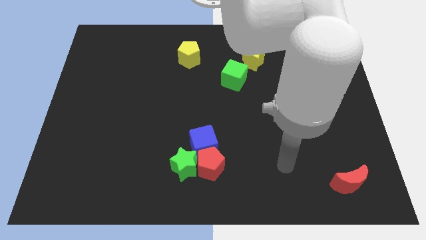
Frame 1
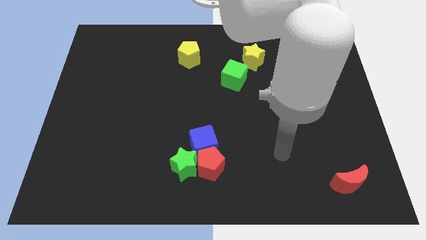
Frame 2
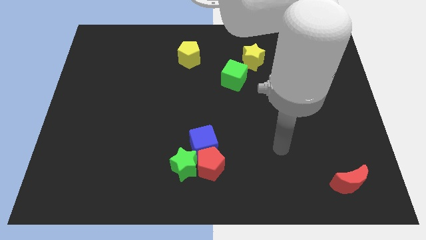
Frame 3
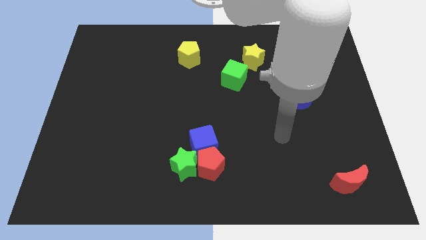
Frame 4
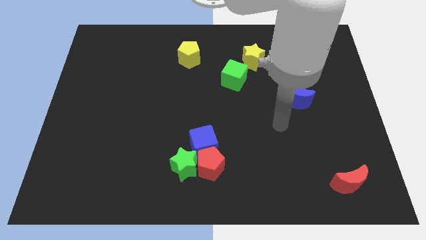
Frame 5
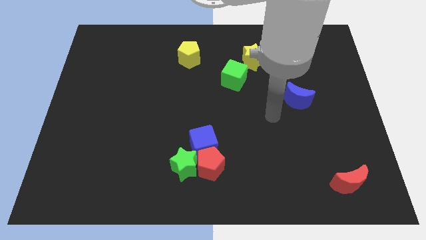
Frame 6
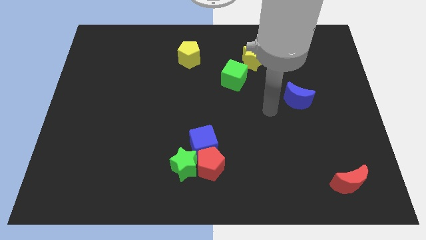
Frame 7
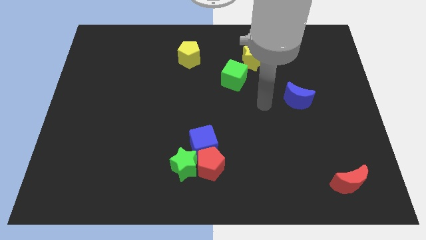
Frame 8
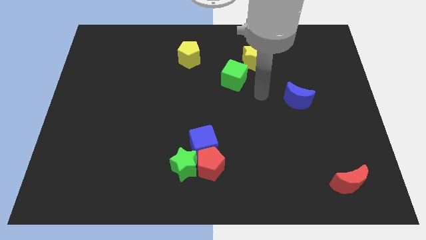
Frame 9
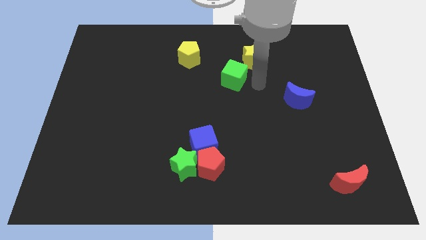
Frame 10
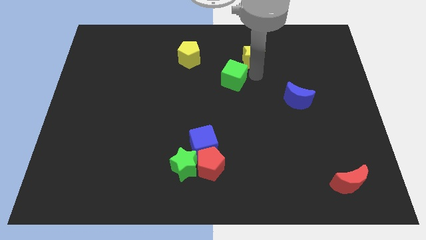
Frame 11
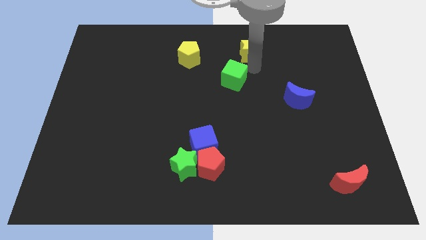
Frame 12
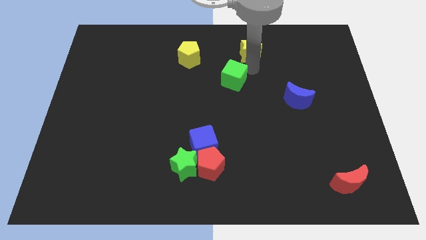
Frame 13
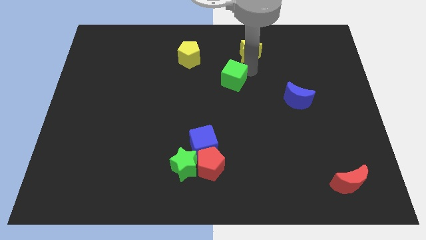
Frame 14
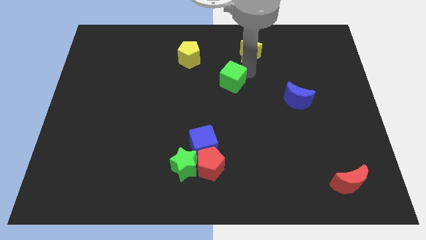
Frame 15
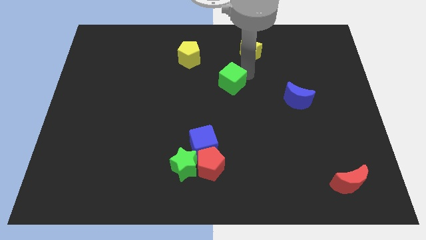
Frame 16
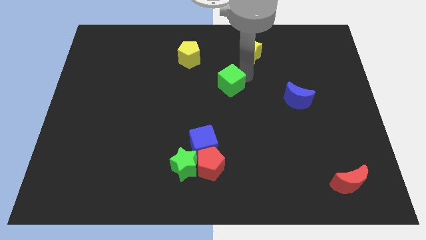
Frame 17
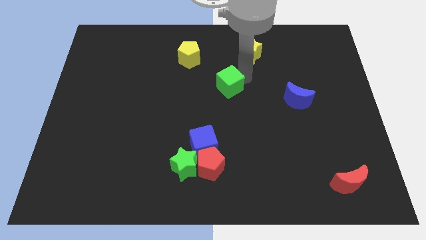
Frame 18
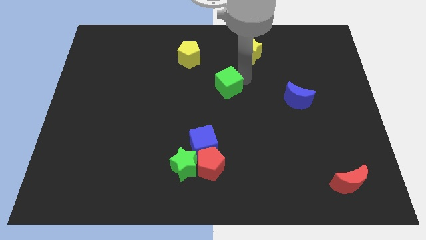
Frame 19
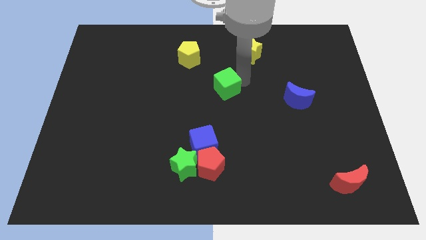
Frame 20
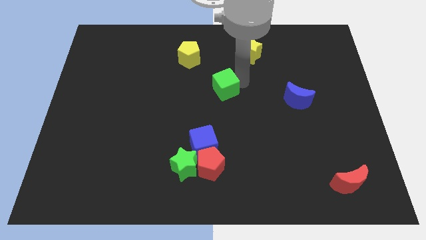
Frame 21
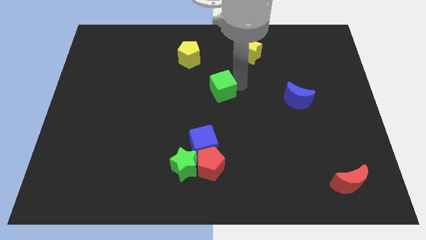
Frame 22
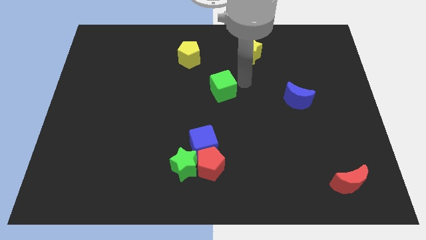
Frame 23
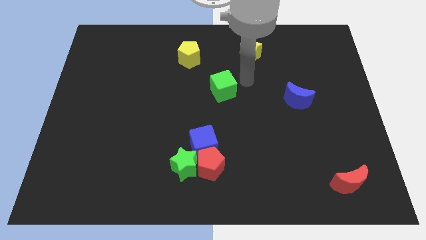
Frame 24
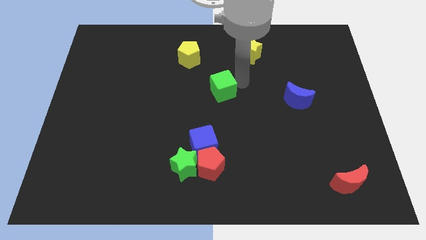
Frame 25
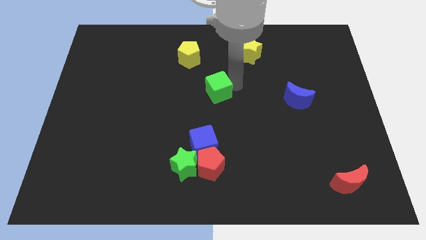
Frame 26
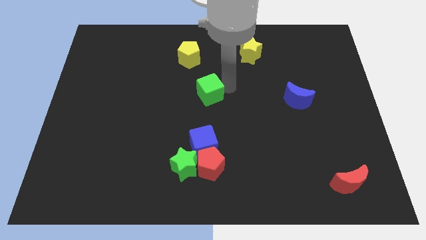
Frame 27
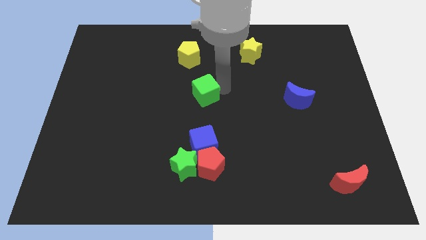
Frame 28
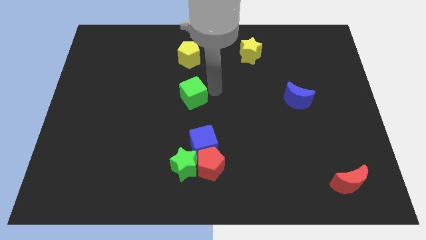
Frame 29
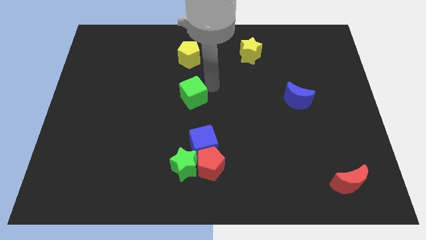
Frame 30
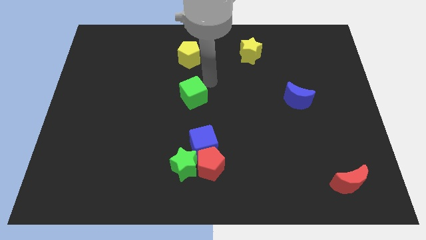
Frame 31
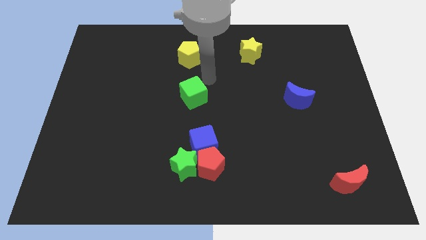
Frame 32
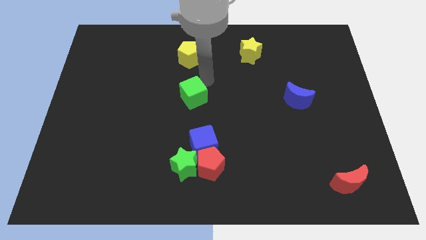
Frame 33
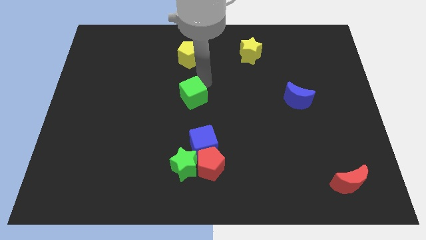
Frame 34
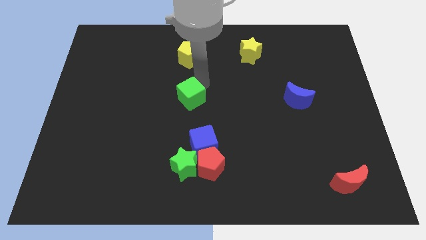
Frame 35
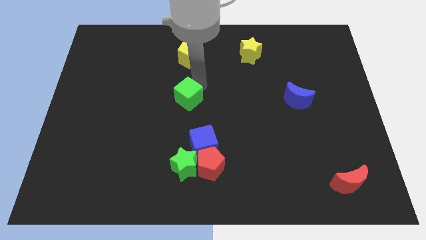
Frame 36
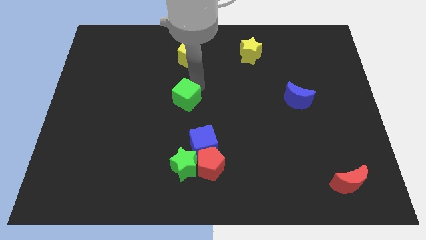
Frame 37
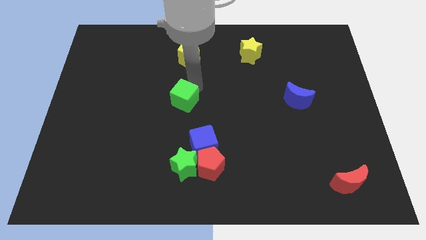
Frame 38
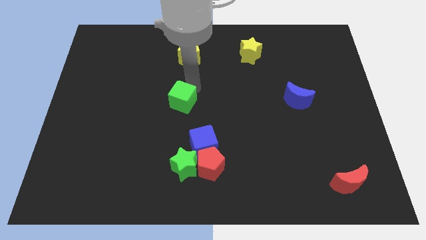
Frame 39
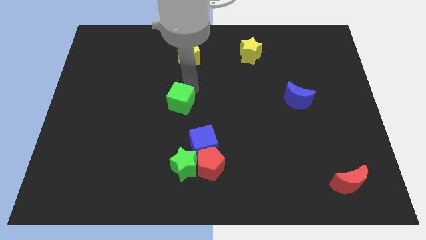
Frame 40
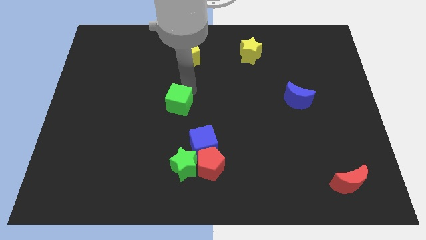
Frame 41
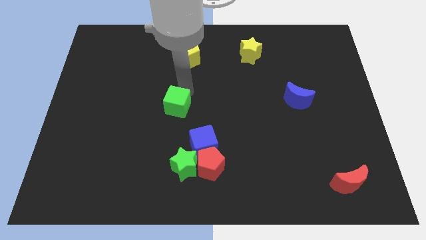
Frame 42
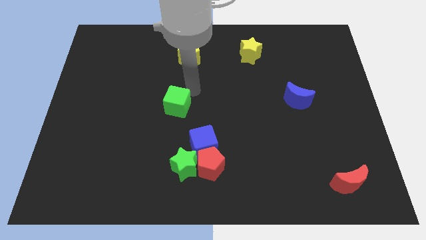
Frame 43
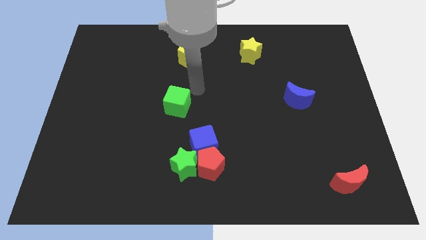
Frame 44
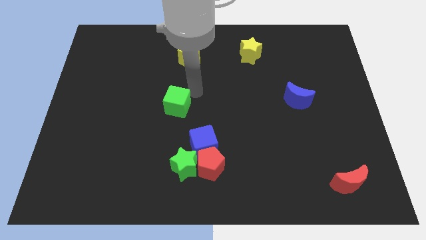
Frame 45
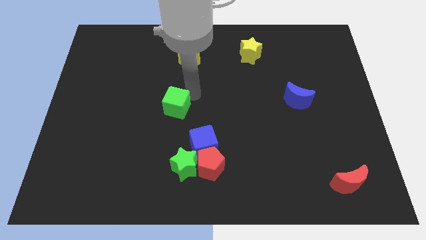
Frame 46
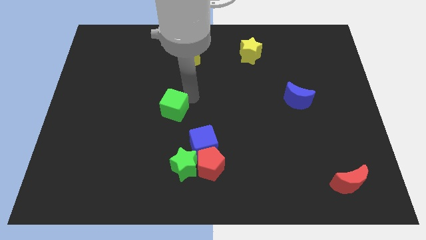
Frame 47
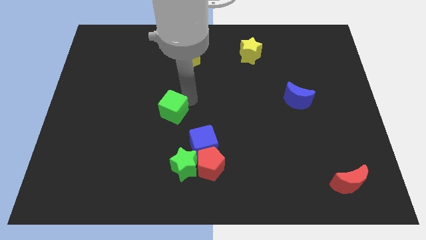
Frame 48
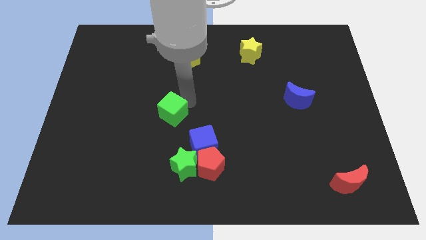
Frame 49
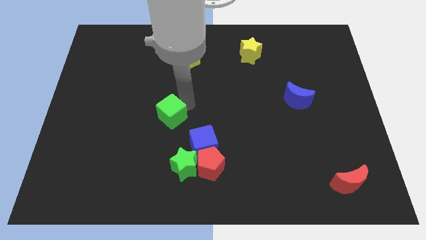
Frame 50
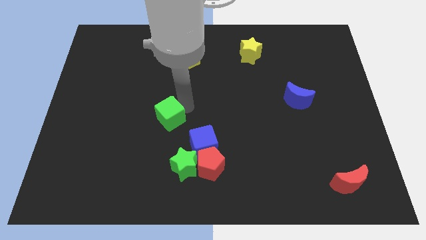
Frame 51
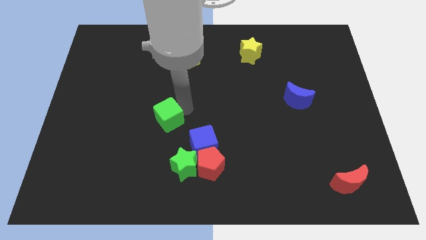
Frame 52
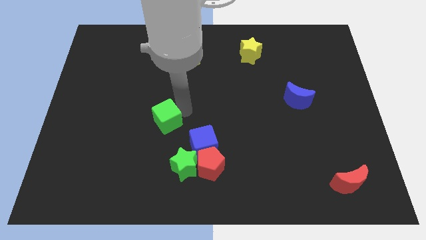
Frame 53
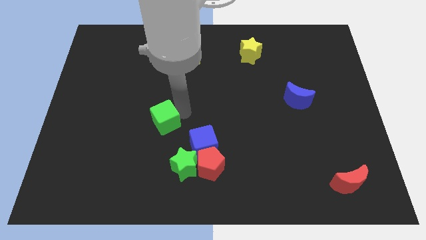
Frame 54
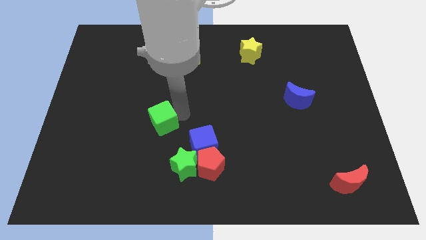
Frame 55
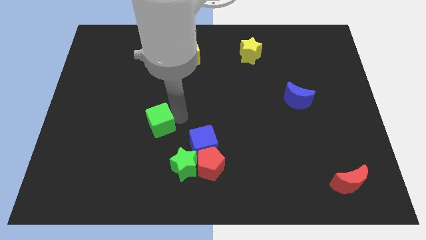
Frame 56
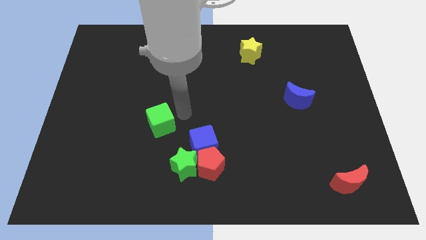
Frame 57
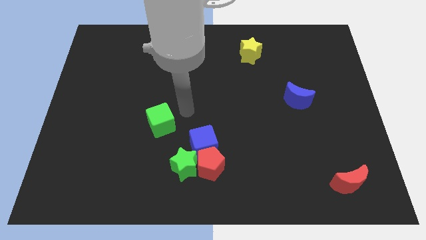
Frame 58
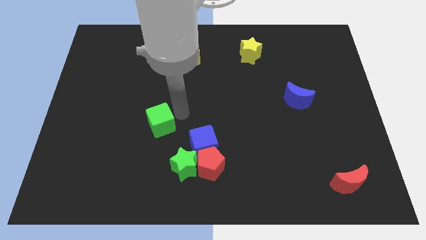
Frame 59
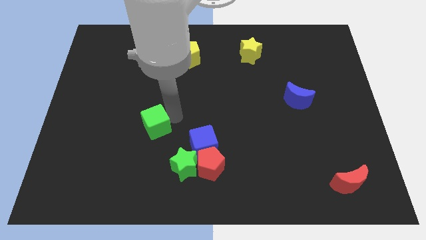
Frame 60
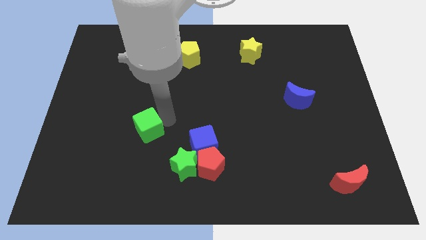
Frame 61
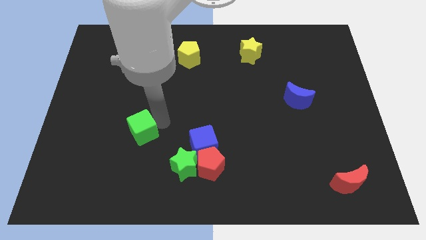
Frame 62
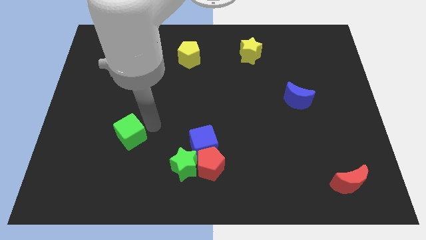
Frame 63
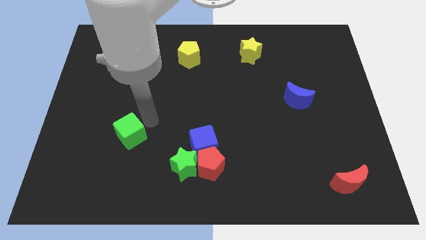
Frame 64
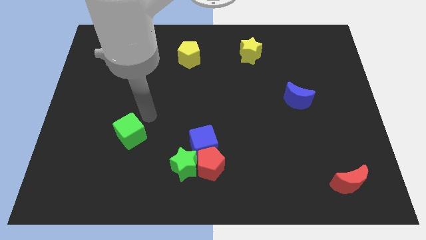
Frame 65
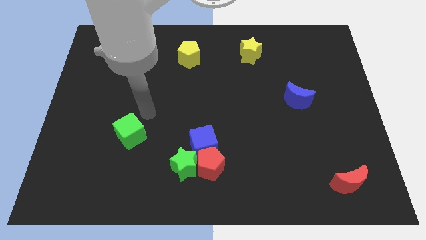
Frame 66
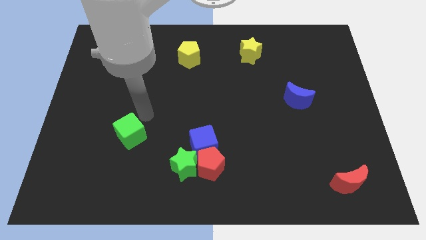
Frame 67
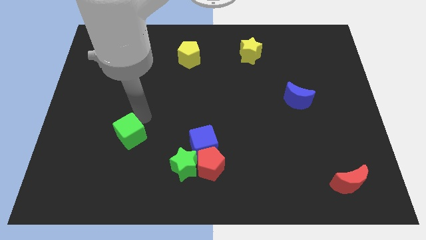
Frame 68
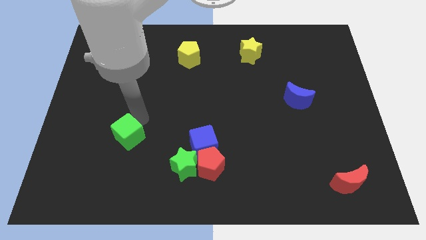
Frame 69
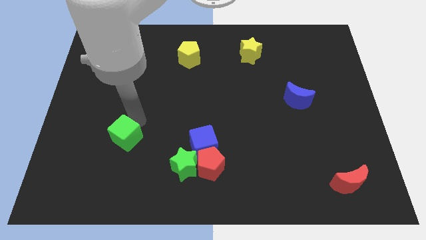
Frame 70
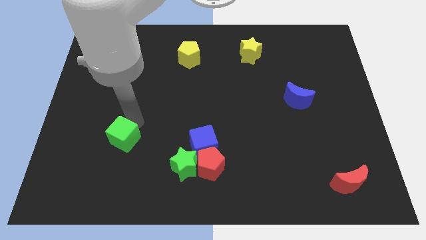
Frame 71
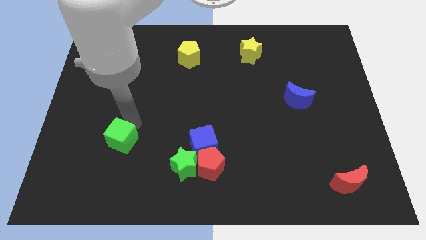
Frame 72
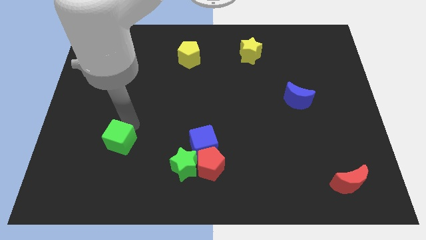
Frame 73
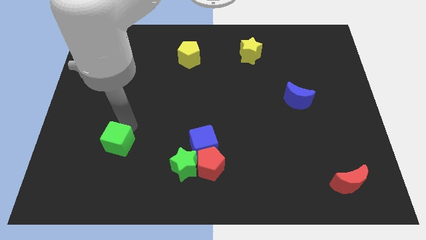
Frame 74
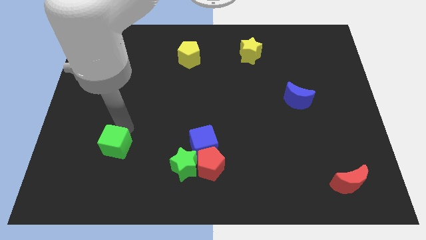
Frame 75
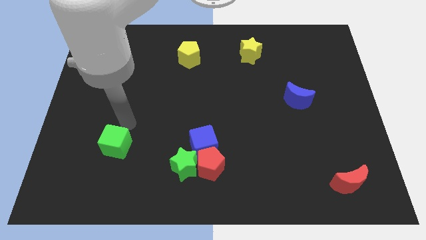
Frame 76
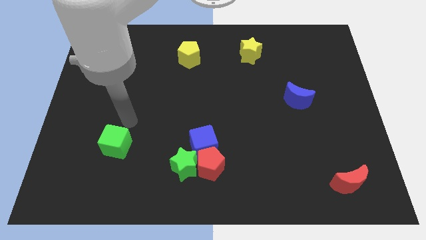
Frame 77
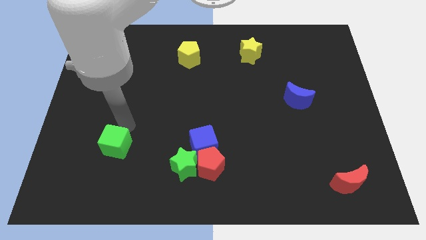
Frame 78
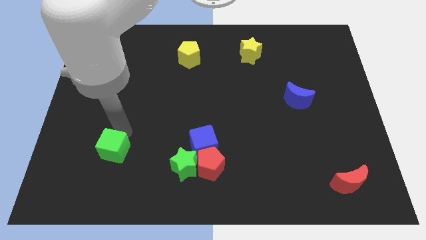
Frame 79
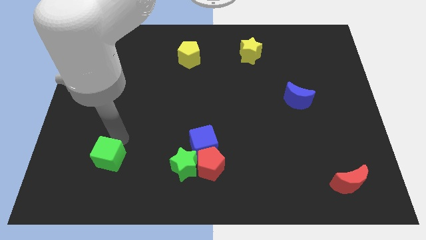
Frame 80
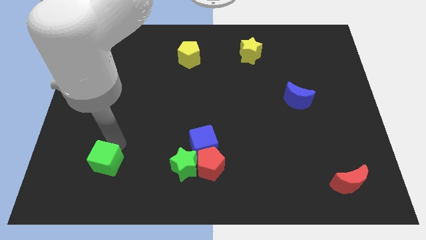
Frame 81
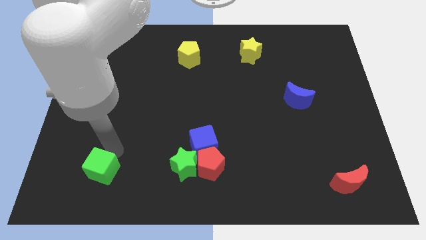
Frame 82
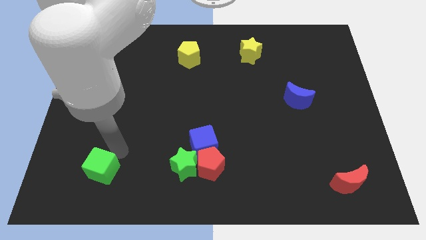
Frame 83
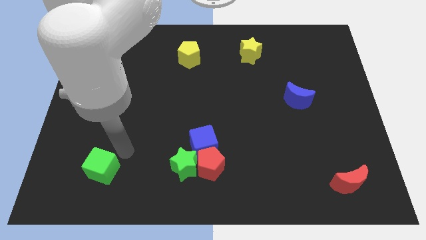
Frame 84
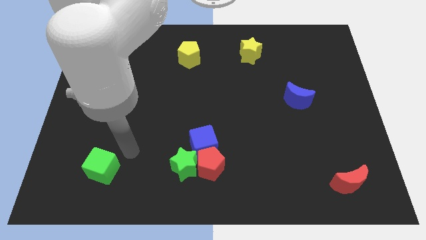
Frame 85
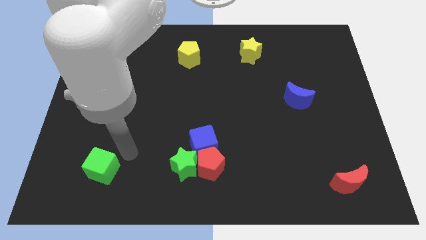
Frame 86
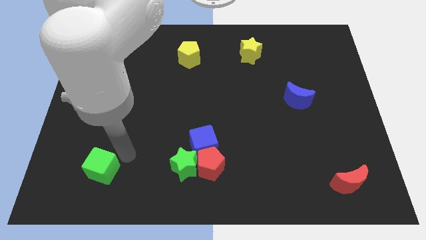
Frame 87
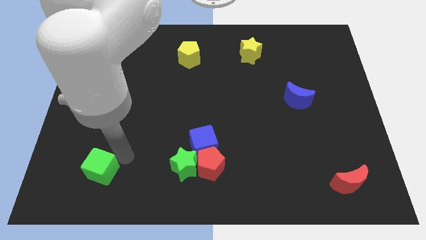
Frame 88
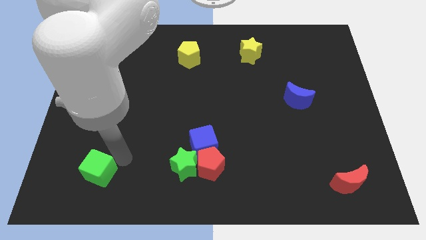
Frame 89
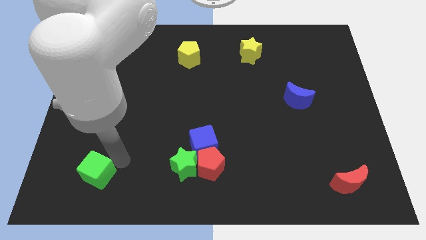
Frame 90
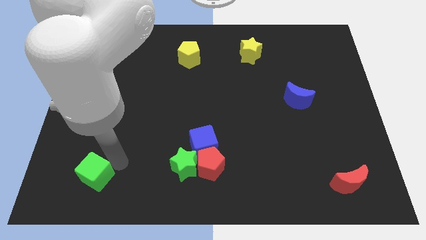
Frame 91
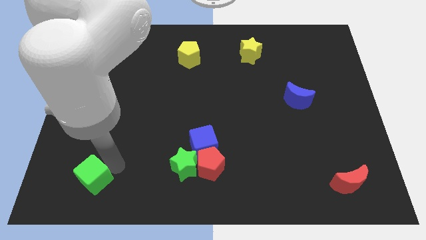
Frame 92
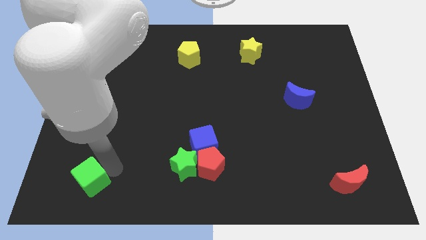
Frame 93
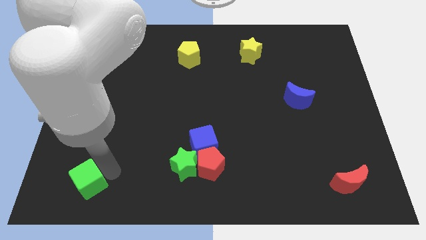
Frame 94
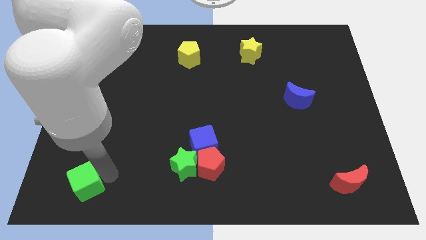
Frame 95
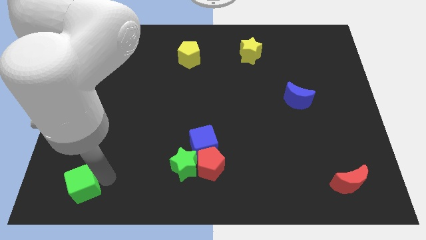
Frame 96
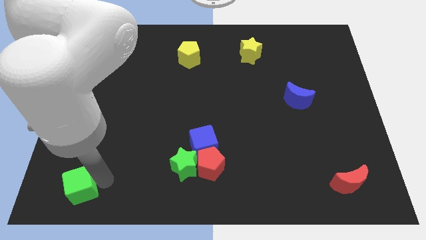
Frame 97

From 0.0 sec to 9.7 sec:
move the green cube to the bottom left of the board
